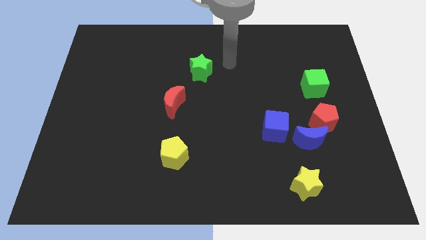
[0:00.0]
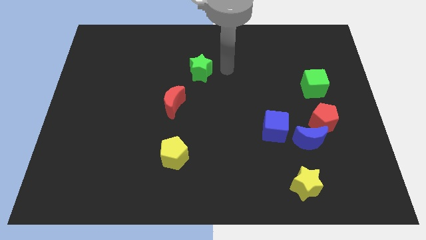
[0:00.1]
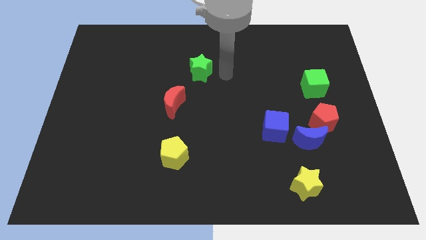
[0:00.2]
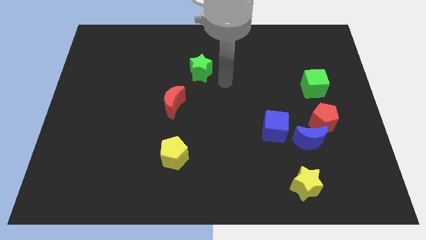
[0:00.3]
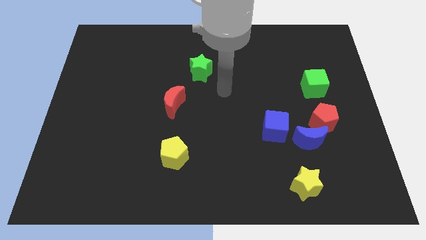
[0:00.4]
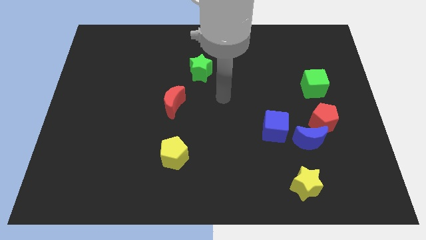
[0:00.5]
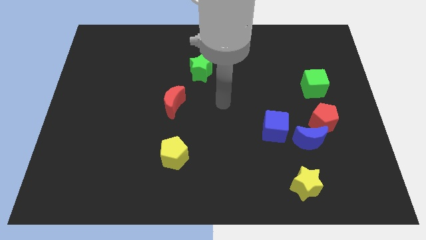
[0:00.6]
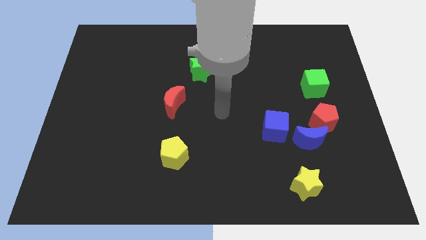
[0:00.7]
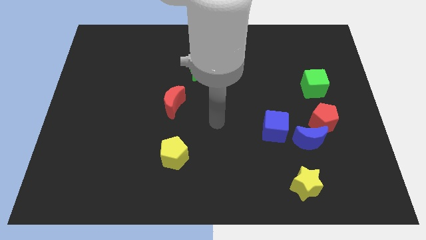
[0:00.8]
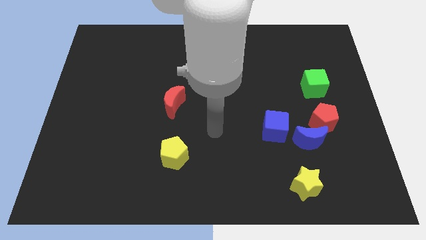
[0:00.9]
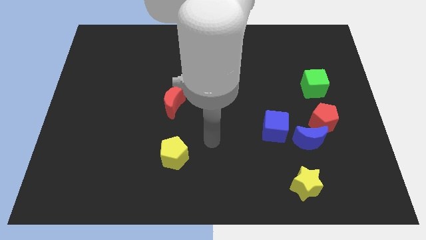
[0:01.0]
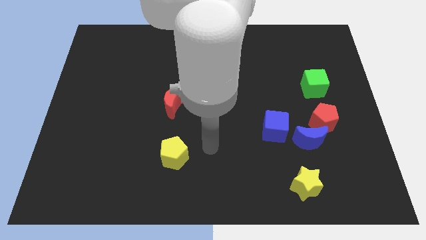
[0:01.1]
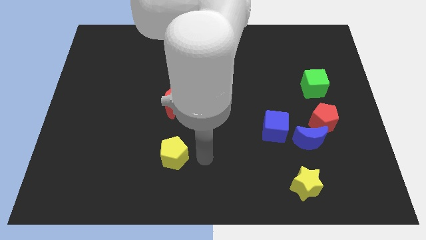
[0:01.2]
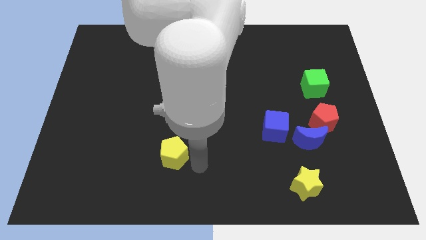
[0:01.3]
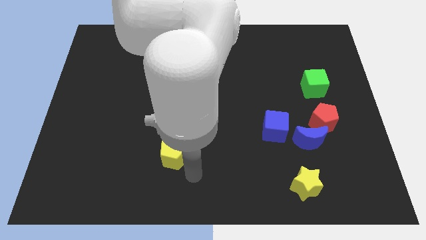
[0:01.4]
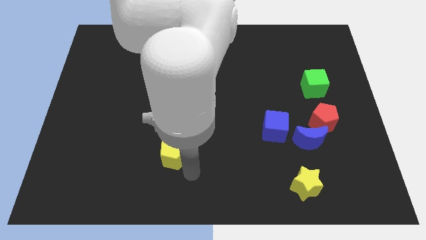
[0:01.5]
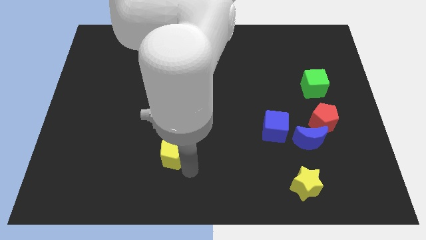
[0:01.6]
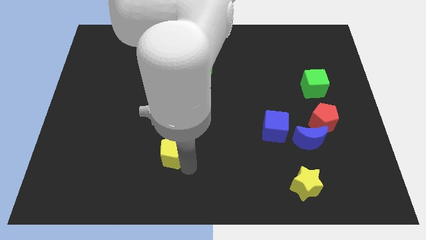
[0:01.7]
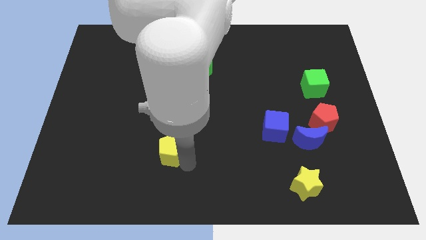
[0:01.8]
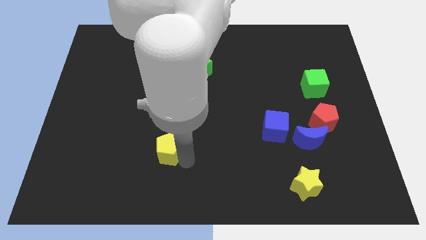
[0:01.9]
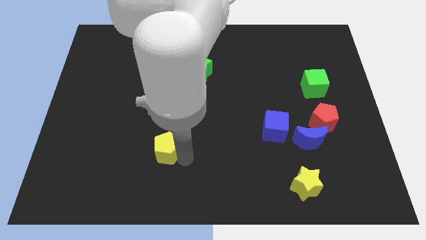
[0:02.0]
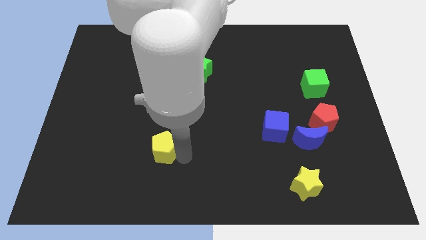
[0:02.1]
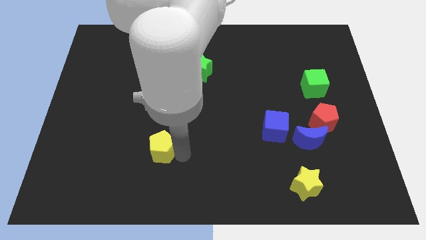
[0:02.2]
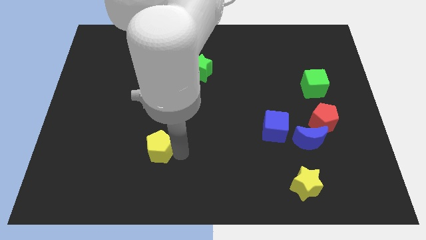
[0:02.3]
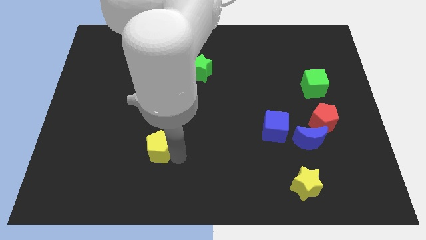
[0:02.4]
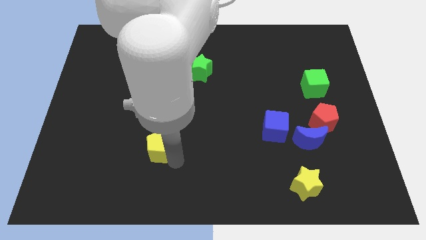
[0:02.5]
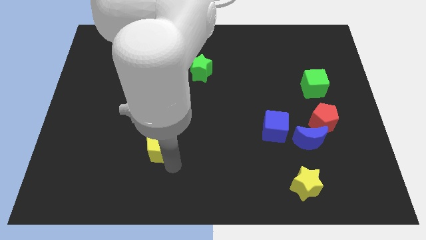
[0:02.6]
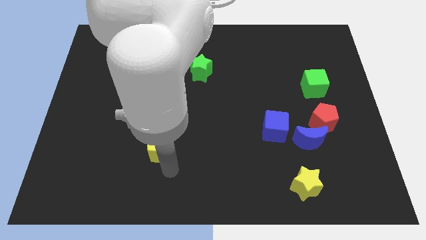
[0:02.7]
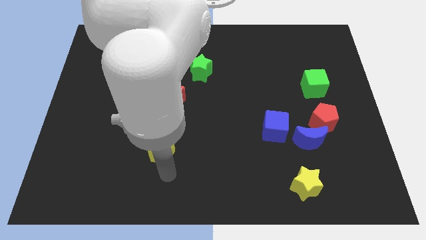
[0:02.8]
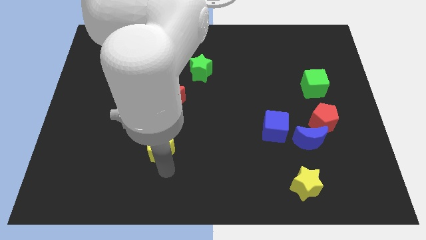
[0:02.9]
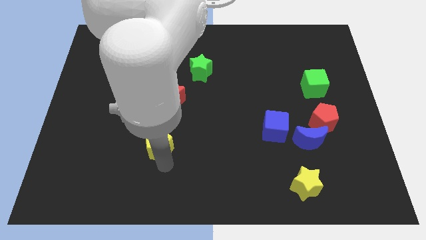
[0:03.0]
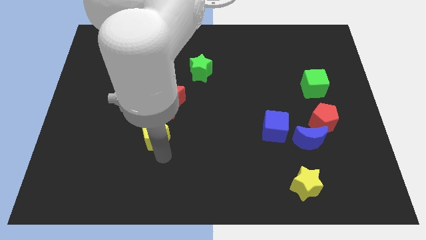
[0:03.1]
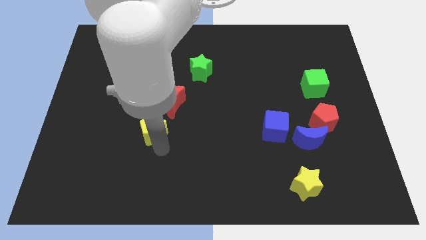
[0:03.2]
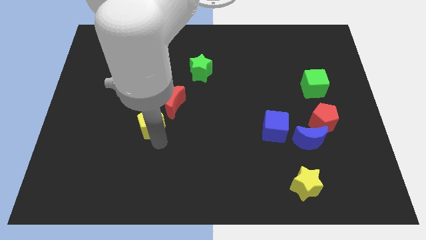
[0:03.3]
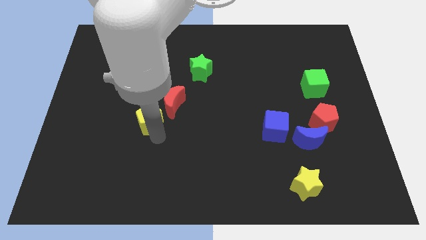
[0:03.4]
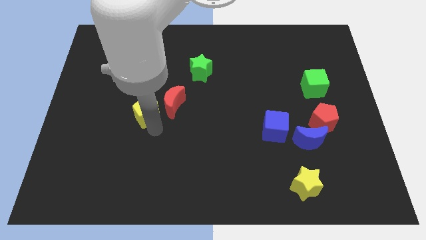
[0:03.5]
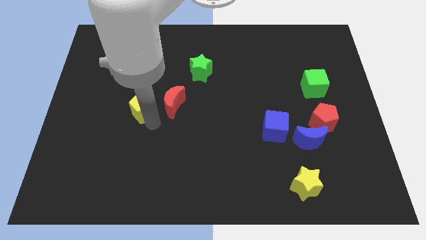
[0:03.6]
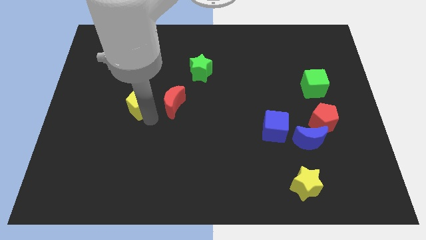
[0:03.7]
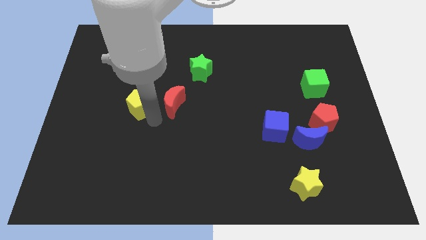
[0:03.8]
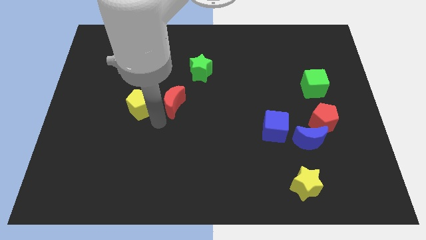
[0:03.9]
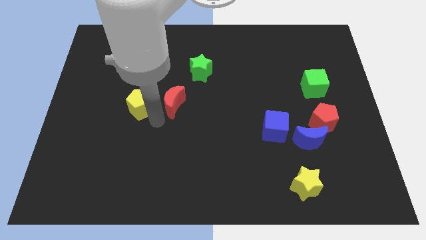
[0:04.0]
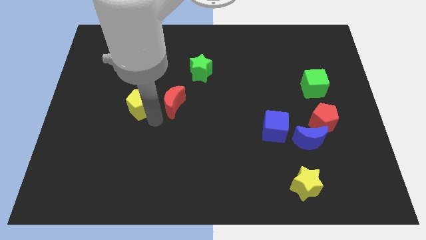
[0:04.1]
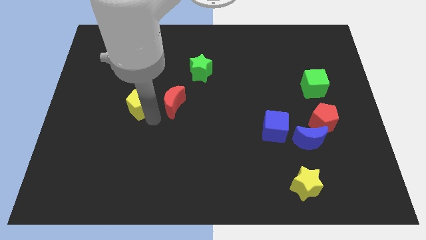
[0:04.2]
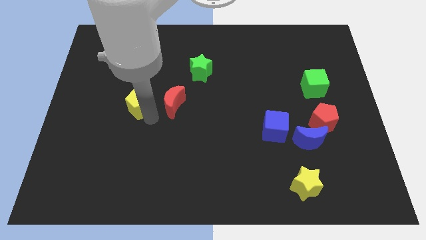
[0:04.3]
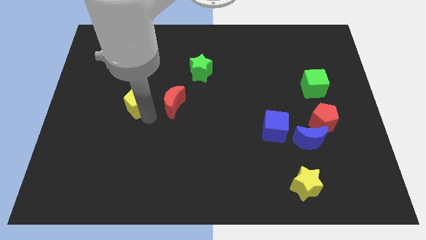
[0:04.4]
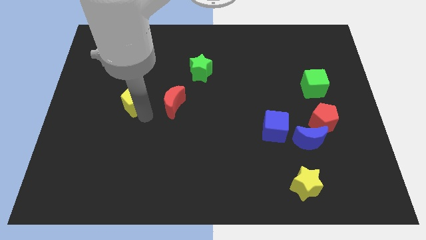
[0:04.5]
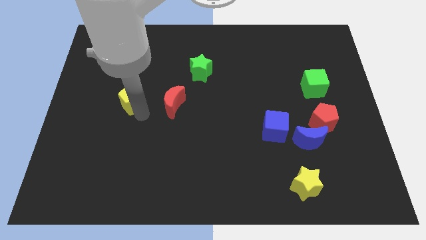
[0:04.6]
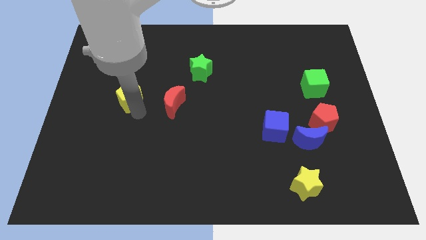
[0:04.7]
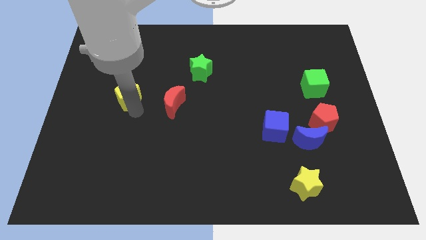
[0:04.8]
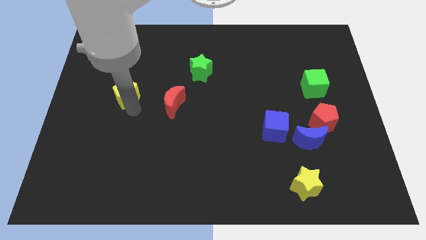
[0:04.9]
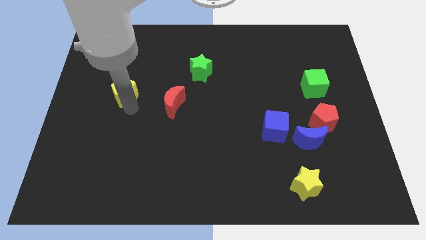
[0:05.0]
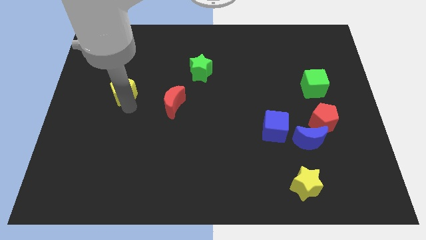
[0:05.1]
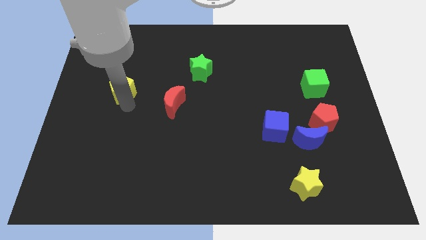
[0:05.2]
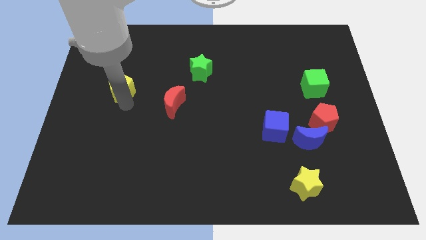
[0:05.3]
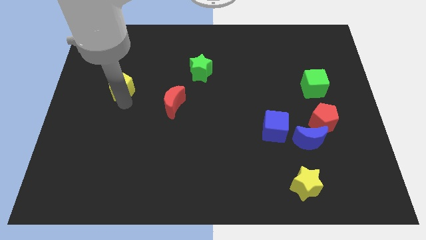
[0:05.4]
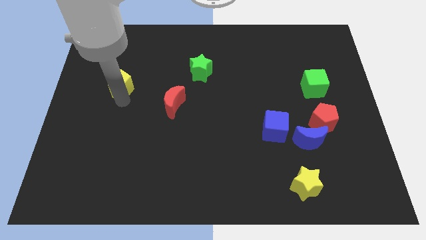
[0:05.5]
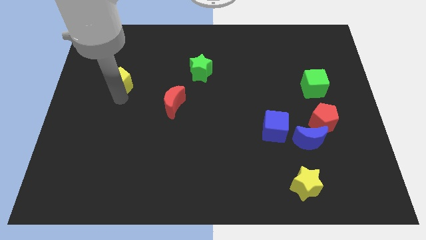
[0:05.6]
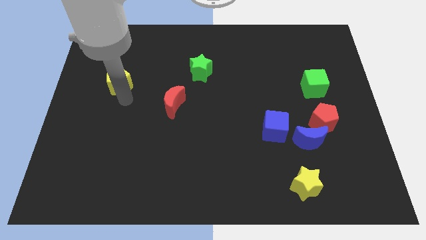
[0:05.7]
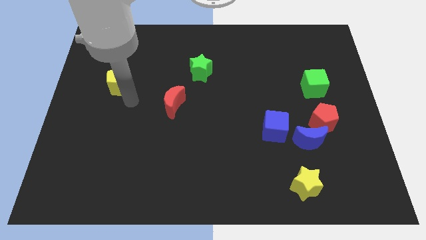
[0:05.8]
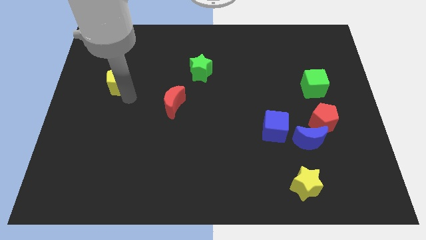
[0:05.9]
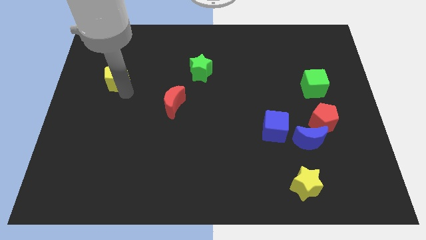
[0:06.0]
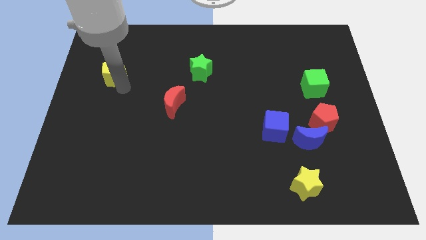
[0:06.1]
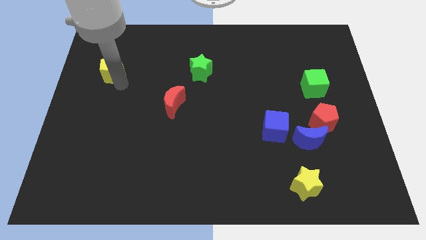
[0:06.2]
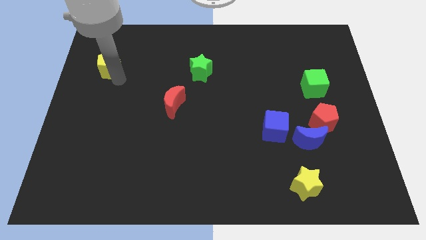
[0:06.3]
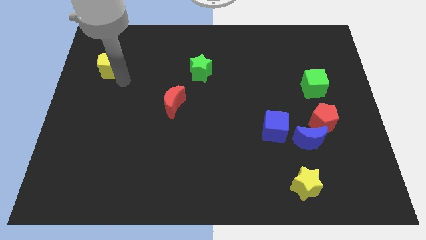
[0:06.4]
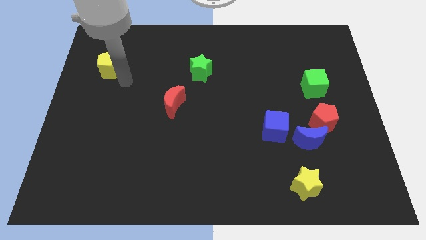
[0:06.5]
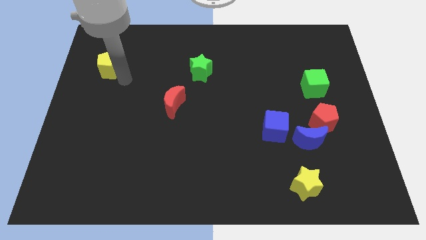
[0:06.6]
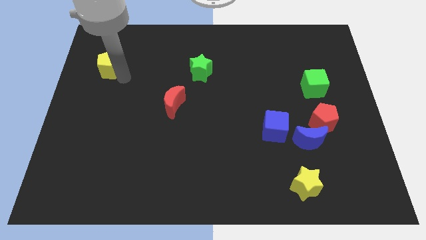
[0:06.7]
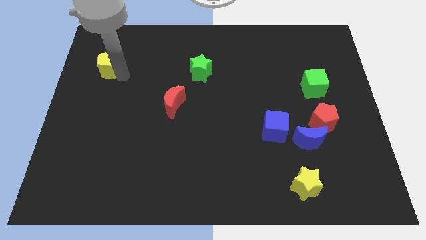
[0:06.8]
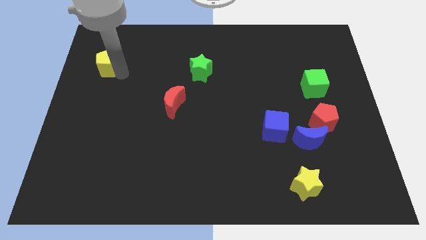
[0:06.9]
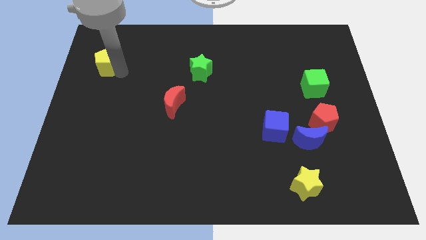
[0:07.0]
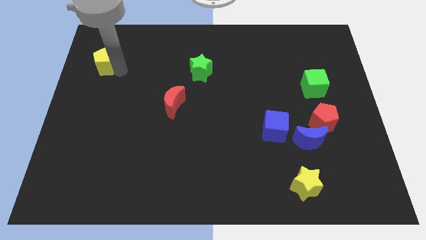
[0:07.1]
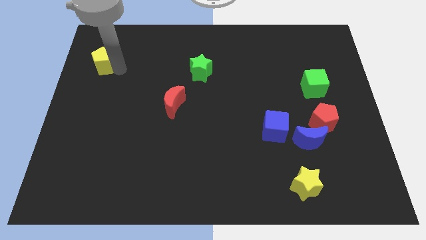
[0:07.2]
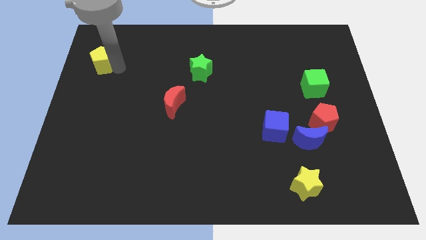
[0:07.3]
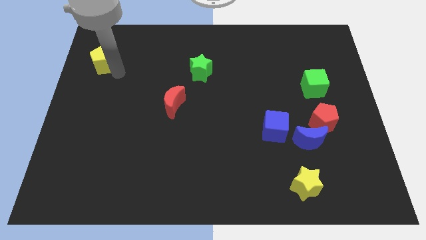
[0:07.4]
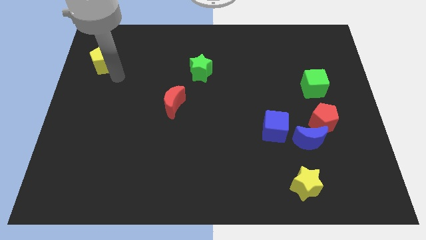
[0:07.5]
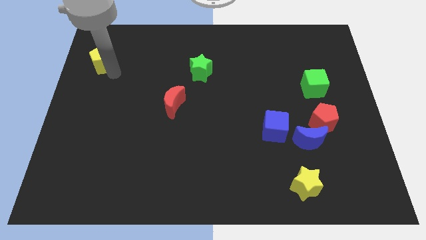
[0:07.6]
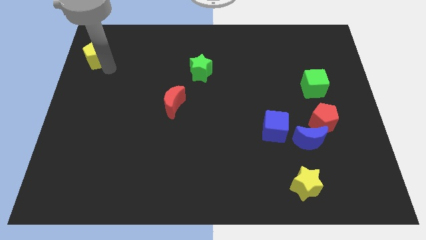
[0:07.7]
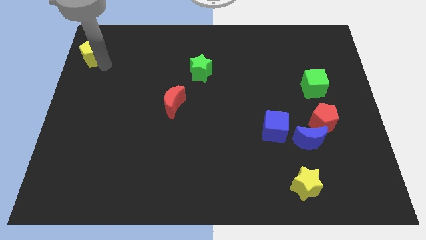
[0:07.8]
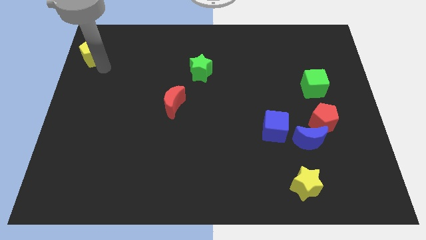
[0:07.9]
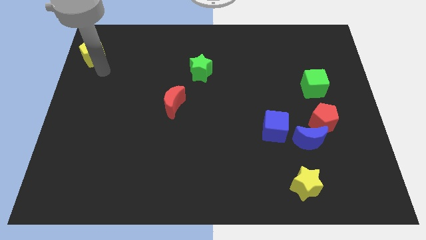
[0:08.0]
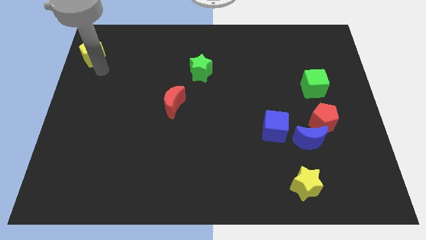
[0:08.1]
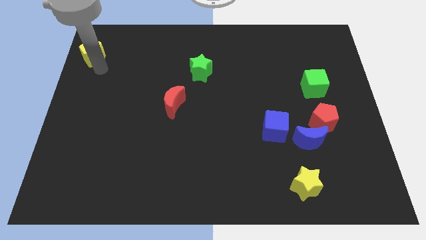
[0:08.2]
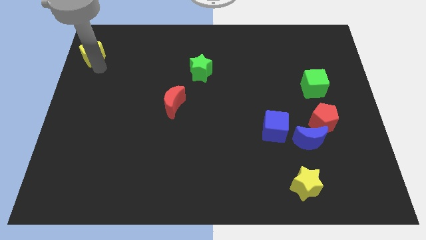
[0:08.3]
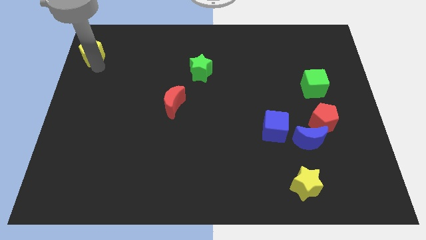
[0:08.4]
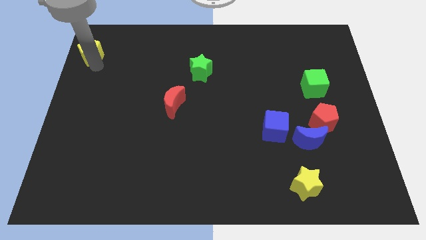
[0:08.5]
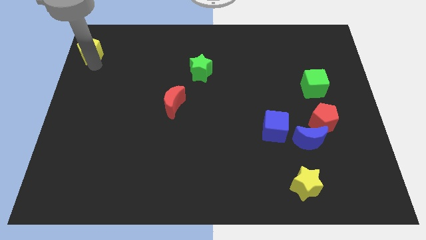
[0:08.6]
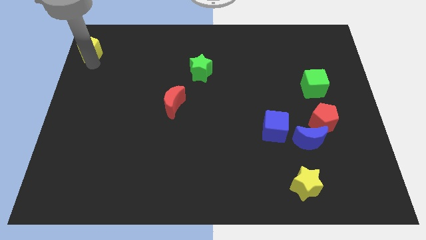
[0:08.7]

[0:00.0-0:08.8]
push the yellow pentagon to the upper left corner
